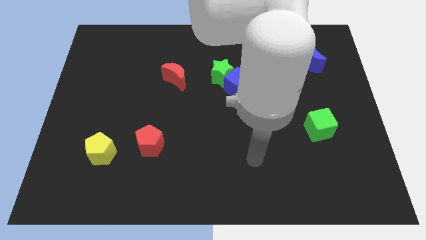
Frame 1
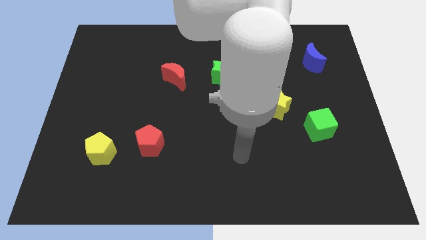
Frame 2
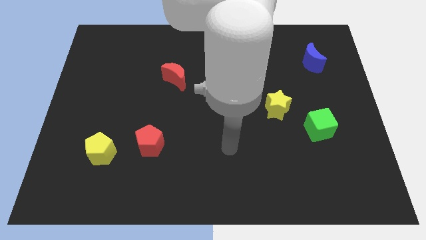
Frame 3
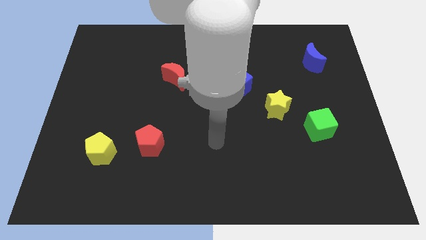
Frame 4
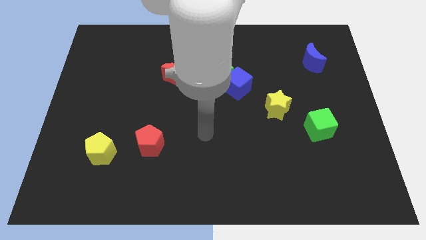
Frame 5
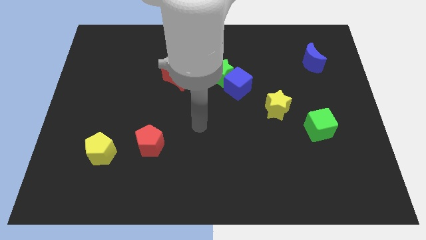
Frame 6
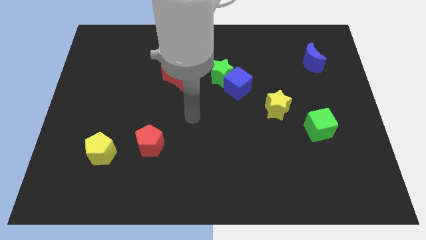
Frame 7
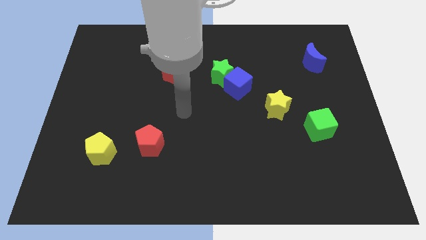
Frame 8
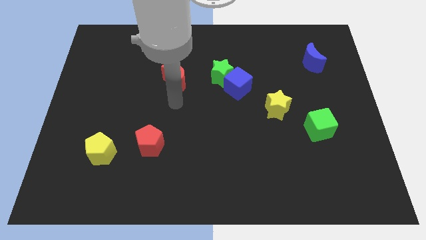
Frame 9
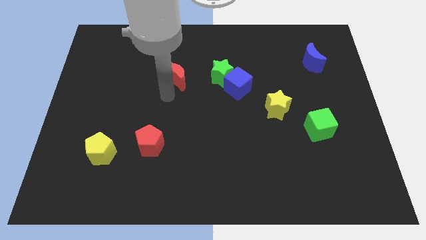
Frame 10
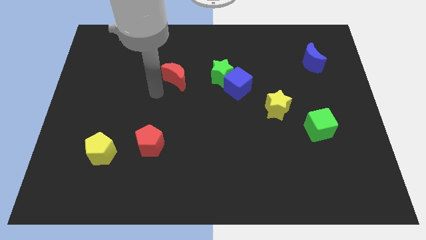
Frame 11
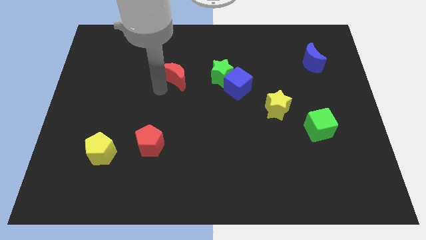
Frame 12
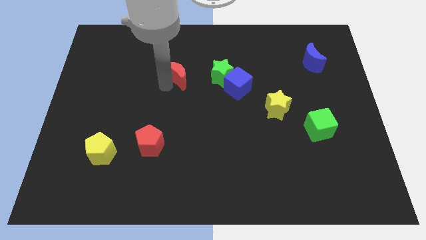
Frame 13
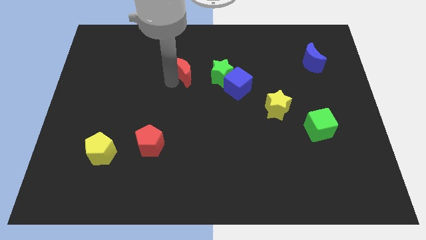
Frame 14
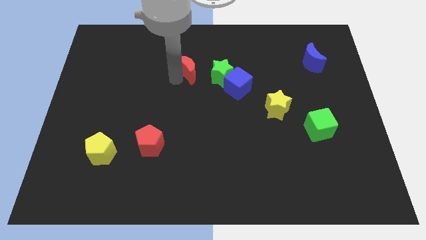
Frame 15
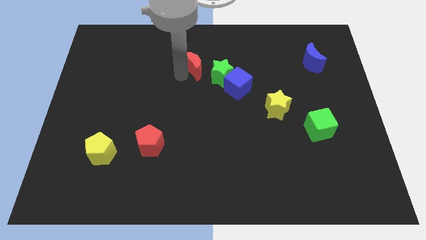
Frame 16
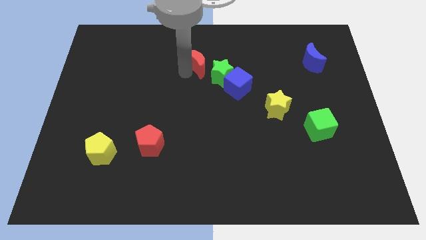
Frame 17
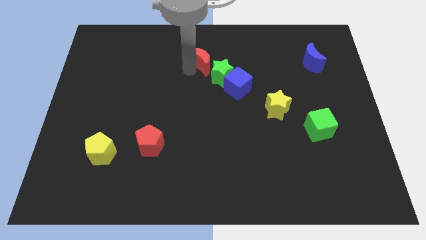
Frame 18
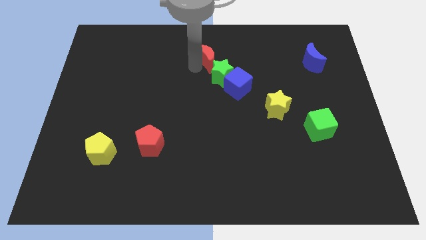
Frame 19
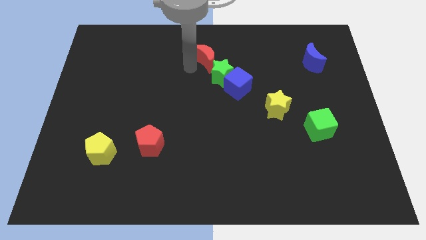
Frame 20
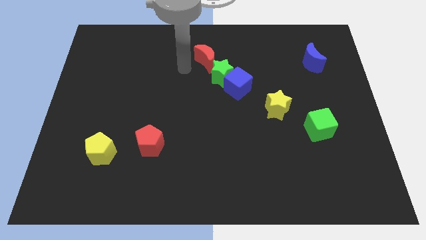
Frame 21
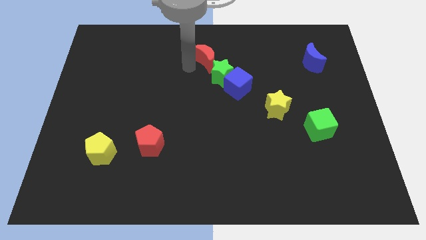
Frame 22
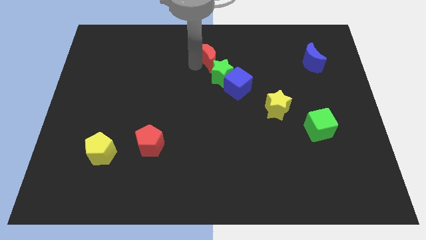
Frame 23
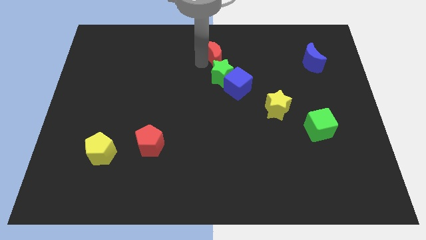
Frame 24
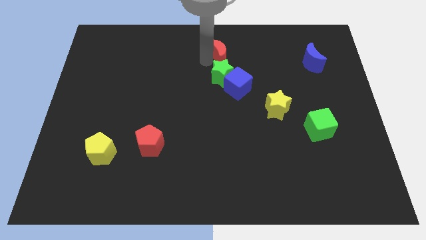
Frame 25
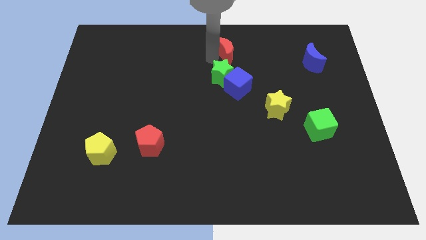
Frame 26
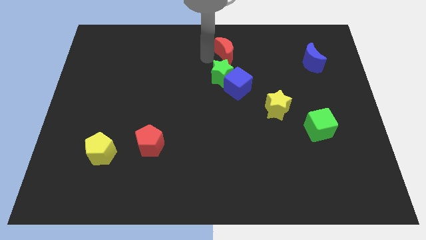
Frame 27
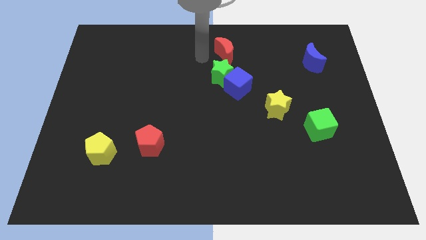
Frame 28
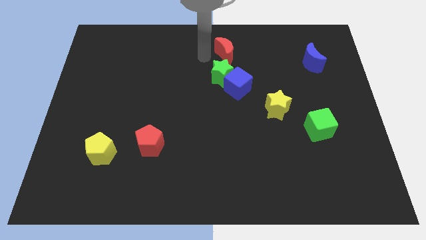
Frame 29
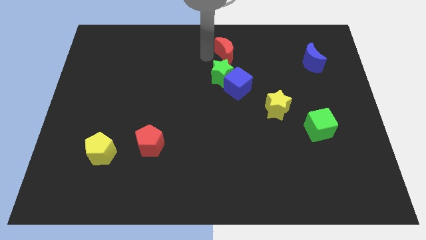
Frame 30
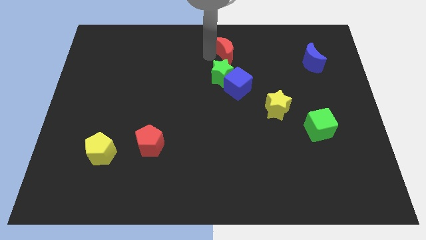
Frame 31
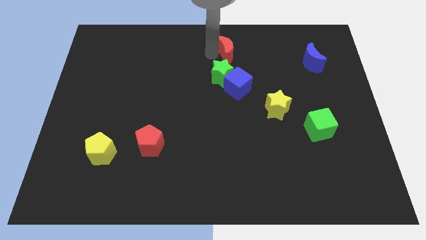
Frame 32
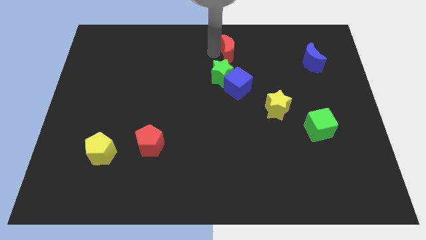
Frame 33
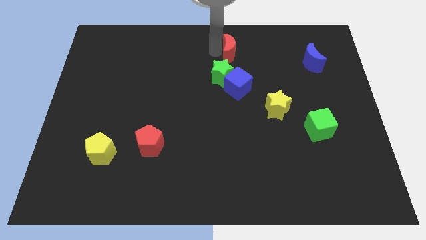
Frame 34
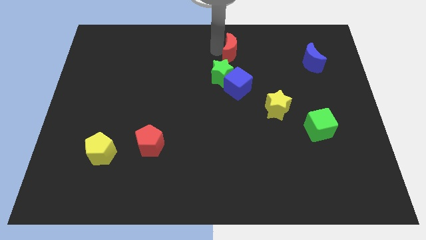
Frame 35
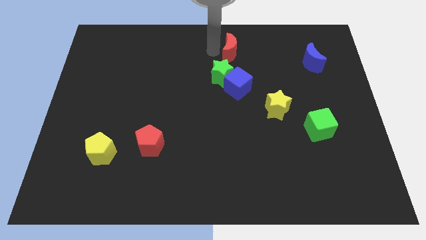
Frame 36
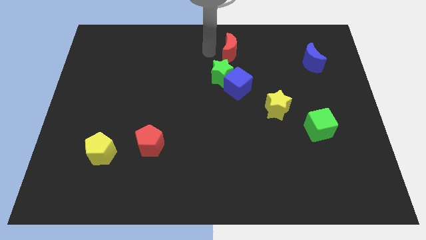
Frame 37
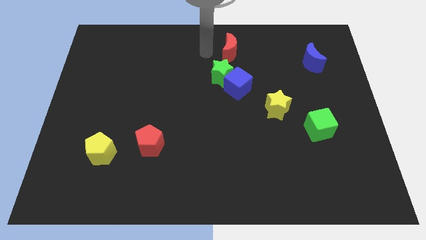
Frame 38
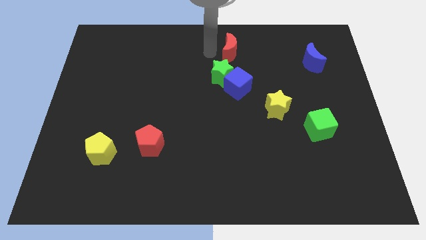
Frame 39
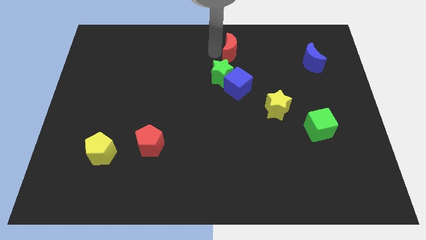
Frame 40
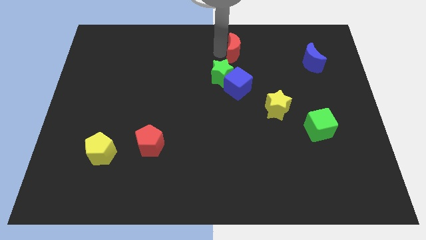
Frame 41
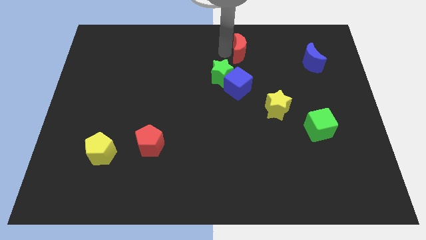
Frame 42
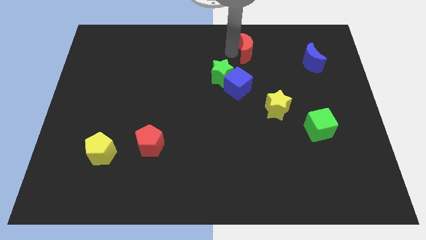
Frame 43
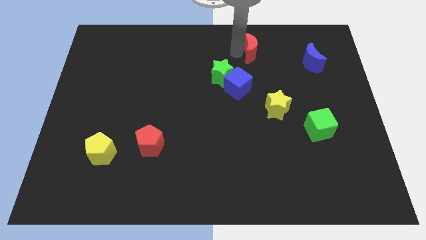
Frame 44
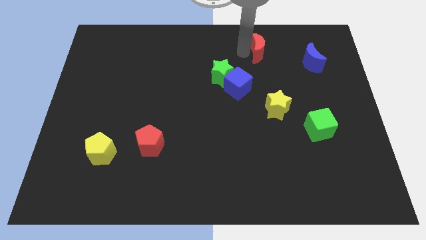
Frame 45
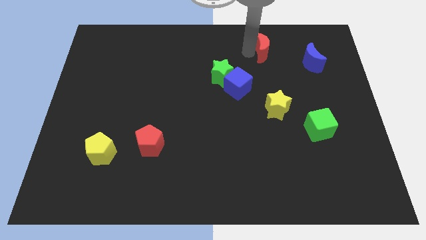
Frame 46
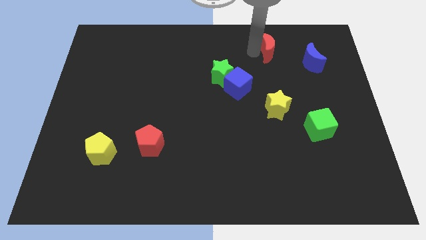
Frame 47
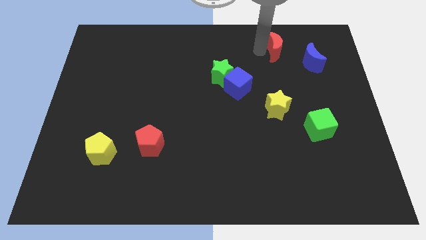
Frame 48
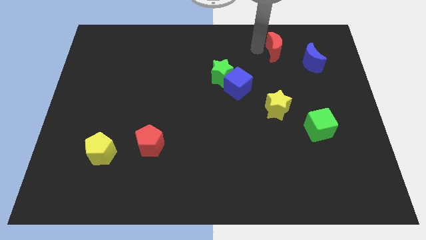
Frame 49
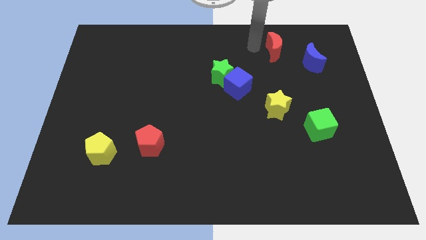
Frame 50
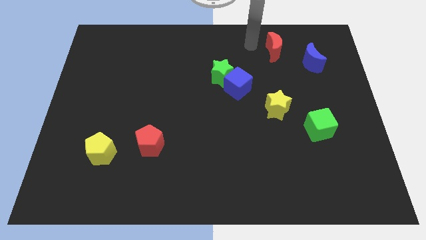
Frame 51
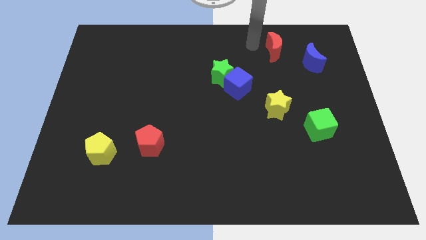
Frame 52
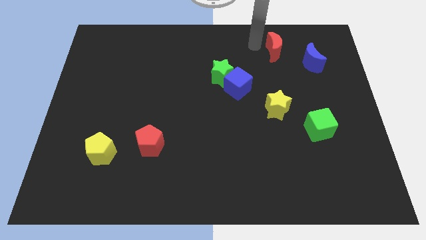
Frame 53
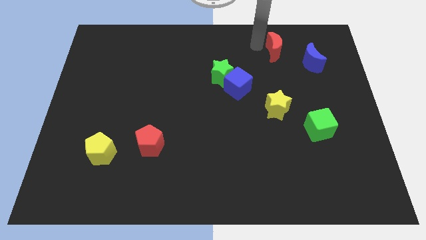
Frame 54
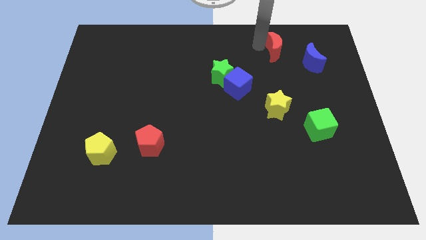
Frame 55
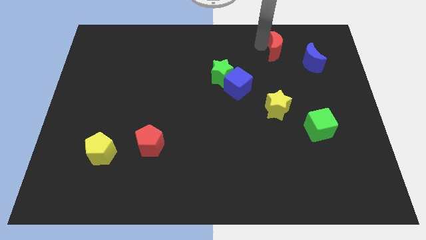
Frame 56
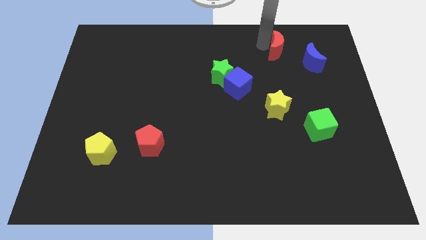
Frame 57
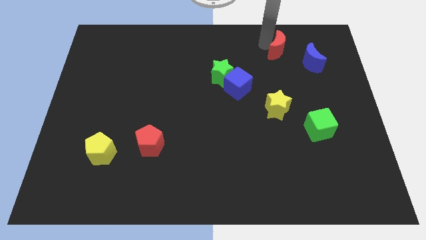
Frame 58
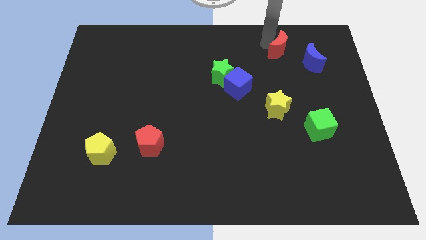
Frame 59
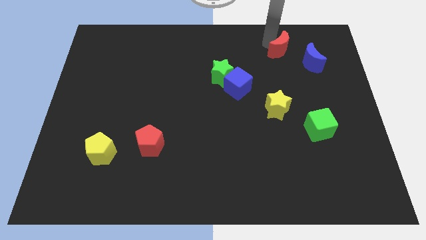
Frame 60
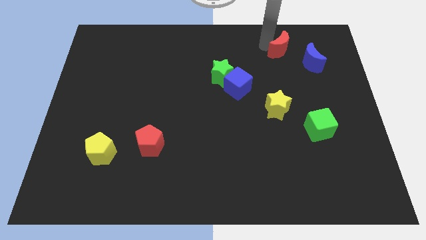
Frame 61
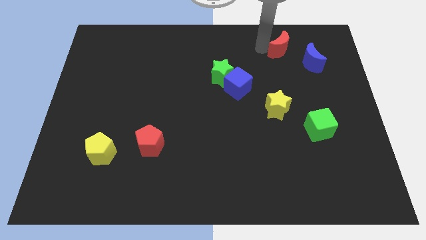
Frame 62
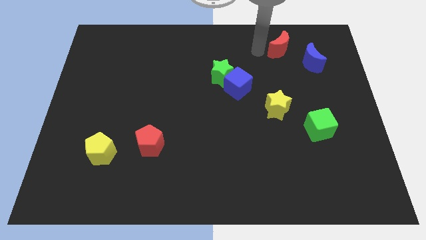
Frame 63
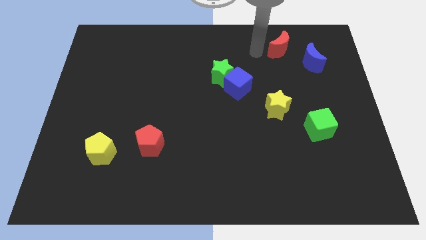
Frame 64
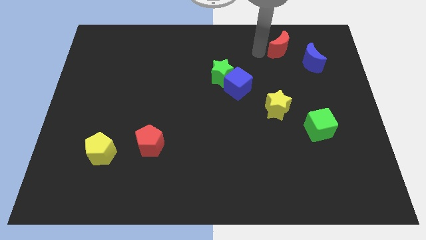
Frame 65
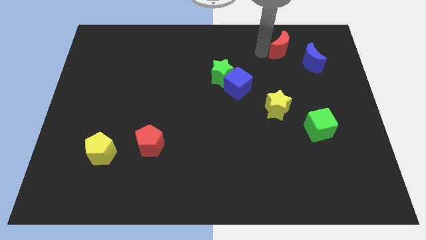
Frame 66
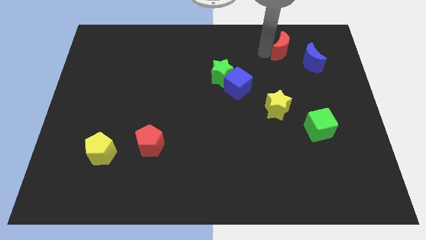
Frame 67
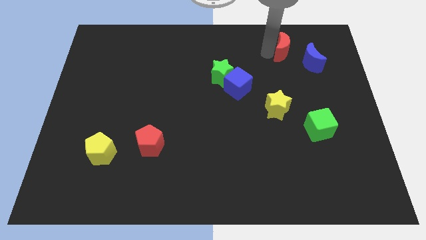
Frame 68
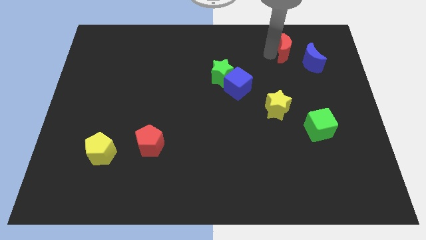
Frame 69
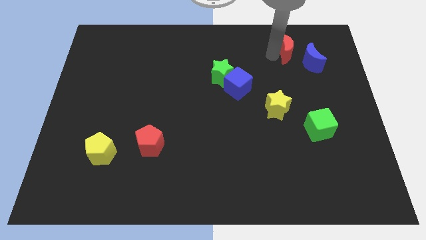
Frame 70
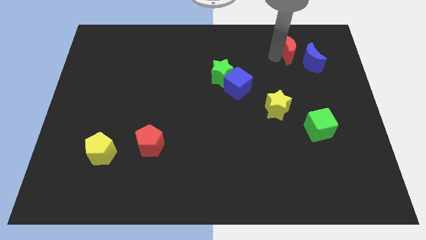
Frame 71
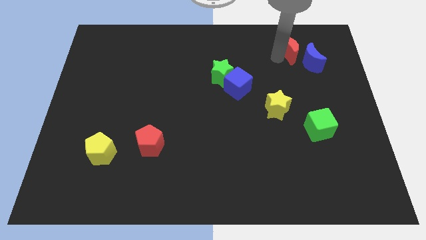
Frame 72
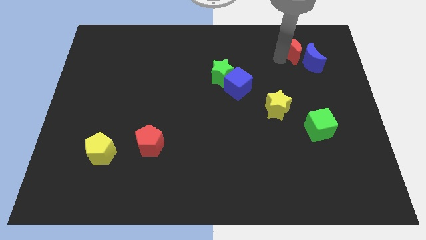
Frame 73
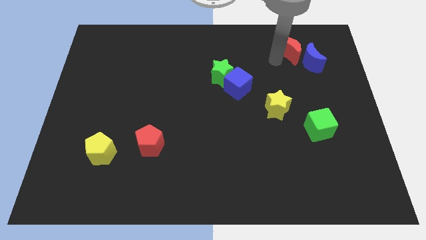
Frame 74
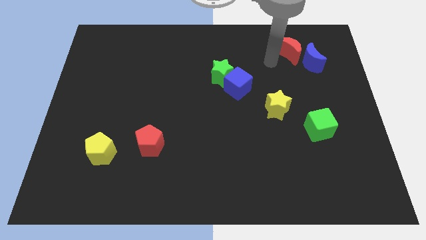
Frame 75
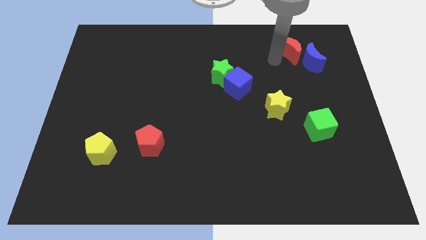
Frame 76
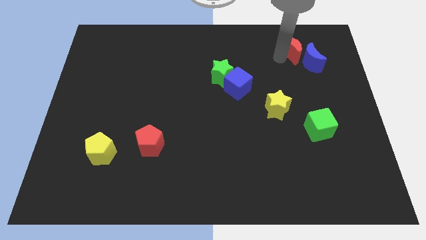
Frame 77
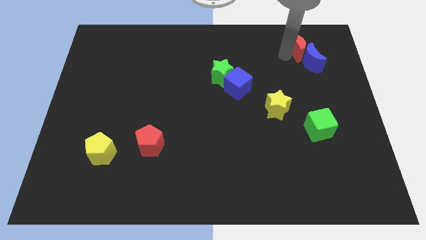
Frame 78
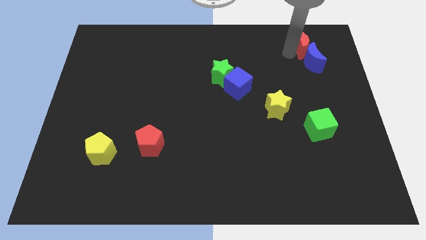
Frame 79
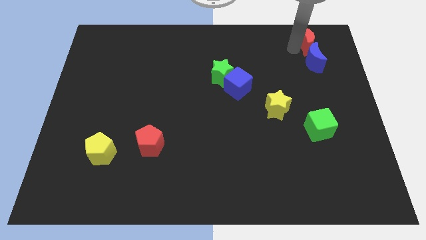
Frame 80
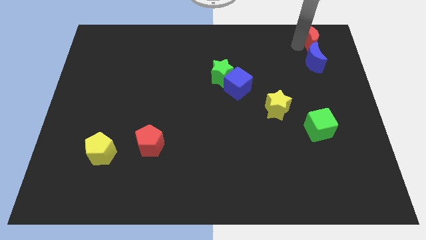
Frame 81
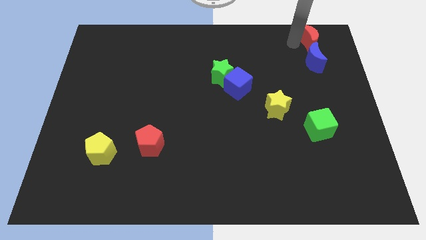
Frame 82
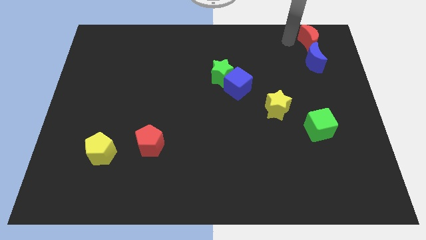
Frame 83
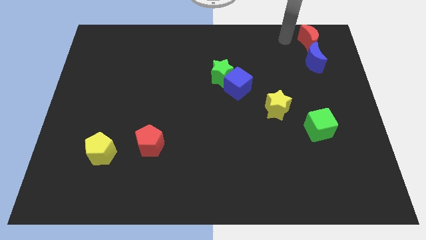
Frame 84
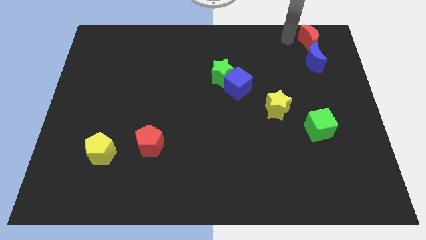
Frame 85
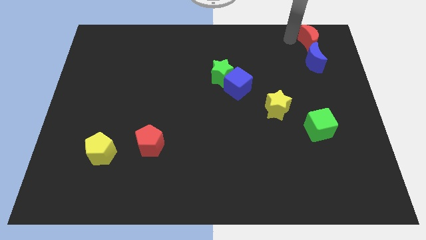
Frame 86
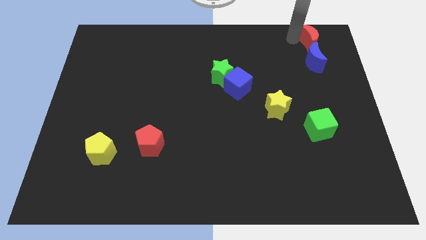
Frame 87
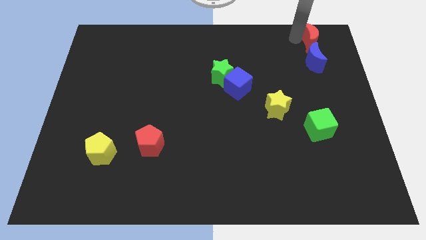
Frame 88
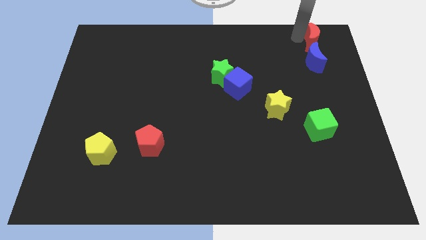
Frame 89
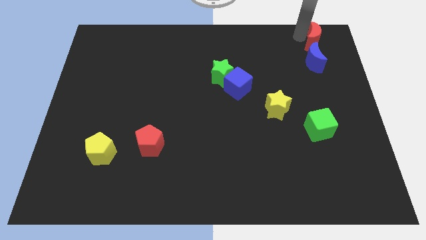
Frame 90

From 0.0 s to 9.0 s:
slide the red moon to the top right corner
